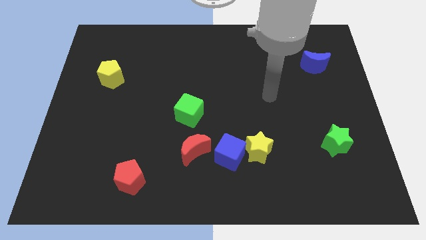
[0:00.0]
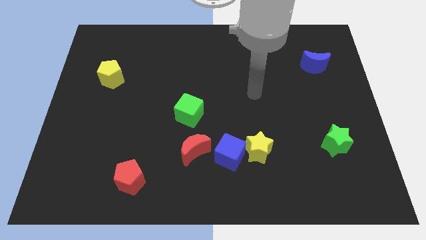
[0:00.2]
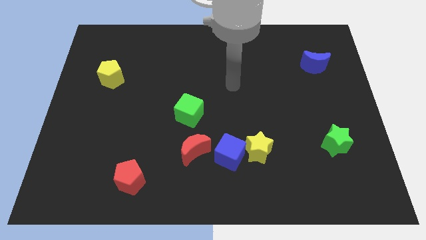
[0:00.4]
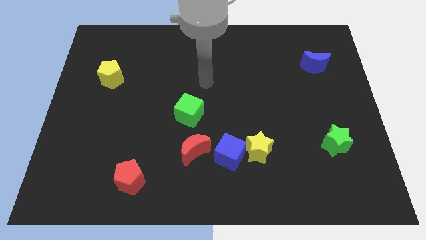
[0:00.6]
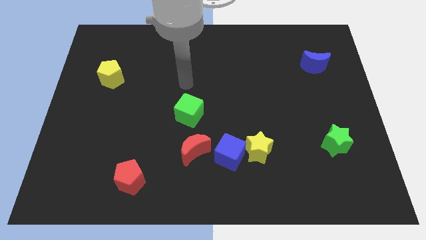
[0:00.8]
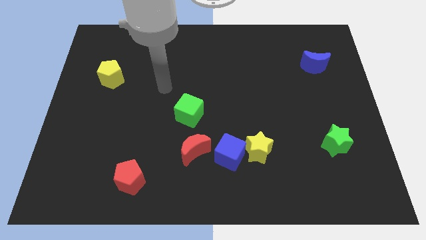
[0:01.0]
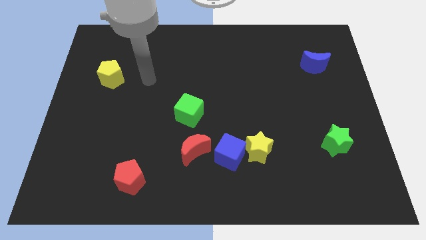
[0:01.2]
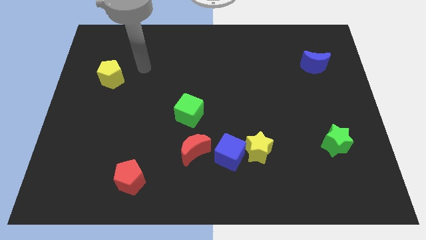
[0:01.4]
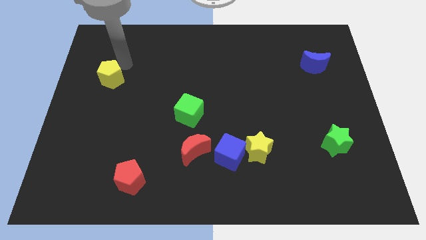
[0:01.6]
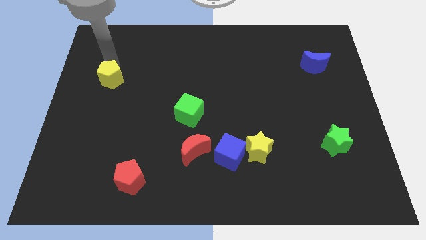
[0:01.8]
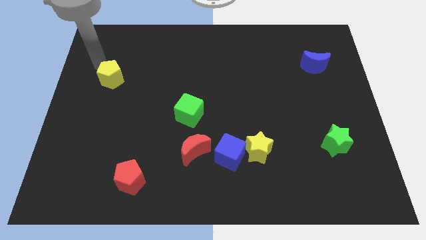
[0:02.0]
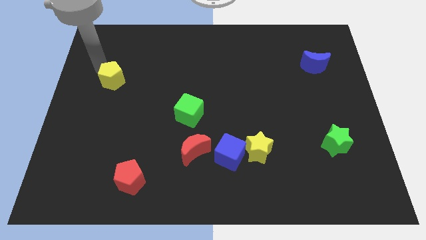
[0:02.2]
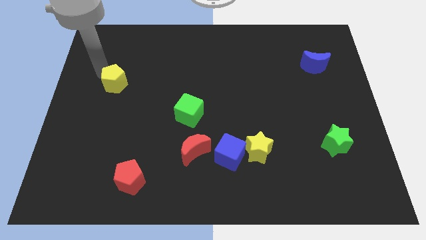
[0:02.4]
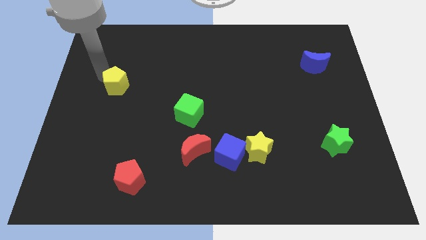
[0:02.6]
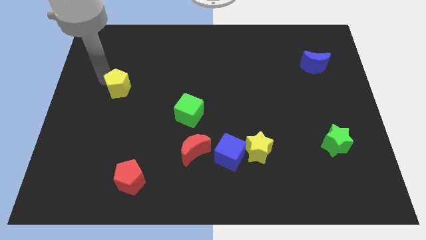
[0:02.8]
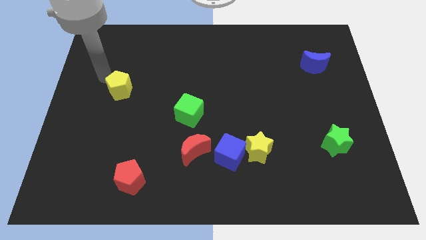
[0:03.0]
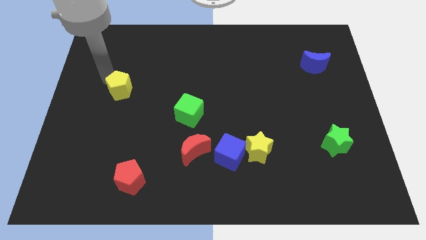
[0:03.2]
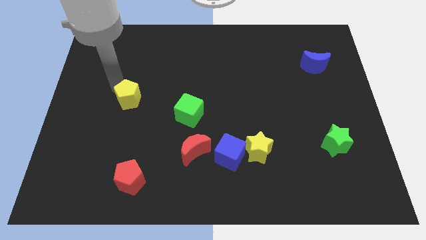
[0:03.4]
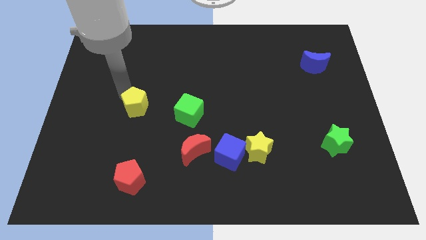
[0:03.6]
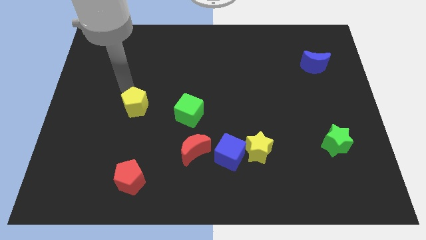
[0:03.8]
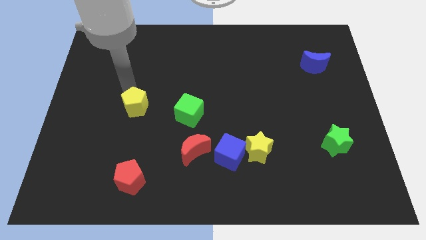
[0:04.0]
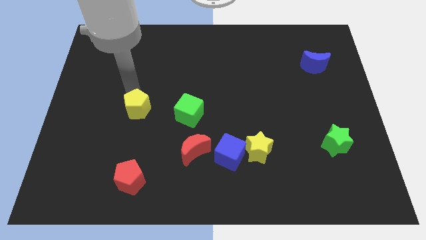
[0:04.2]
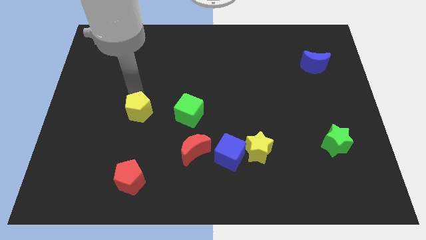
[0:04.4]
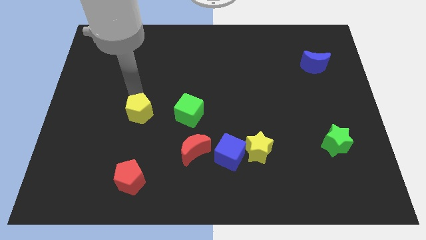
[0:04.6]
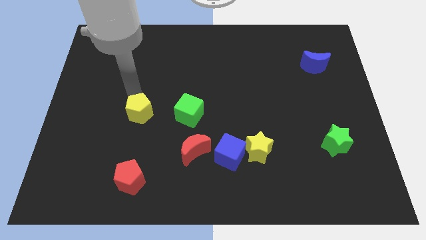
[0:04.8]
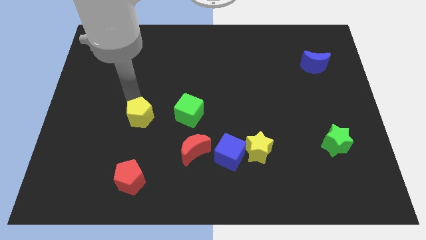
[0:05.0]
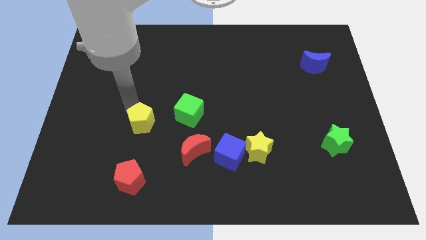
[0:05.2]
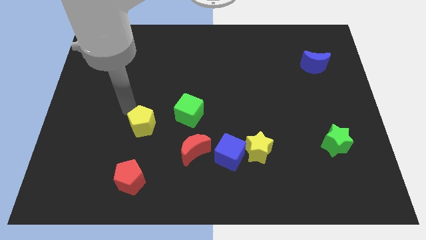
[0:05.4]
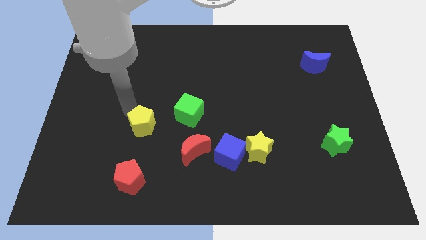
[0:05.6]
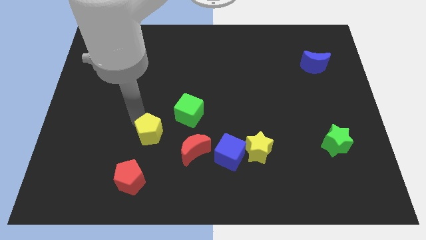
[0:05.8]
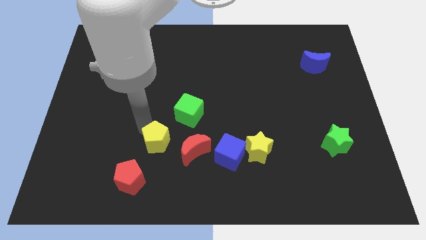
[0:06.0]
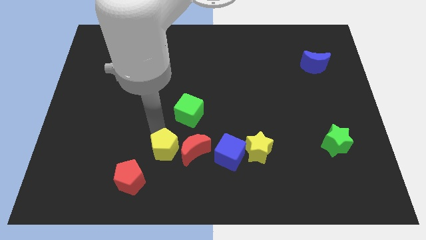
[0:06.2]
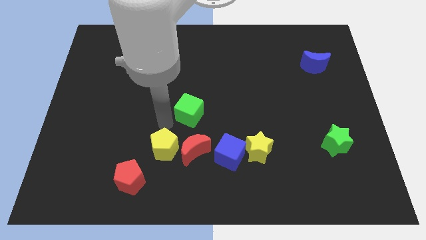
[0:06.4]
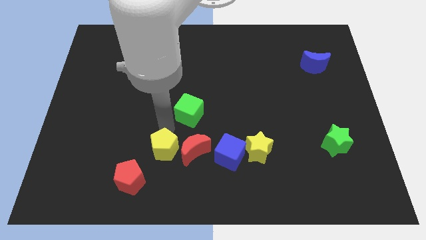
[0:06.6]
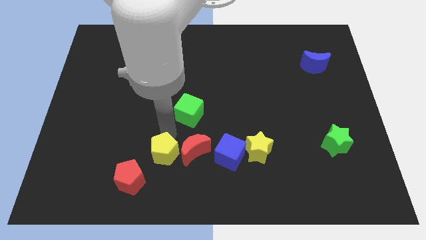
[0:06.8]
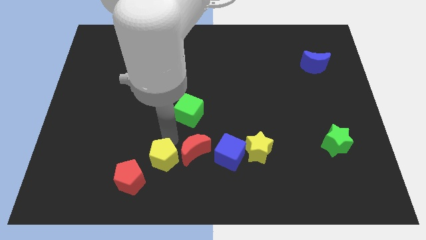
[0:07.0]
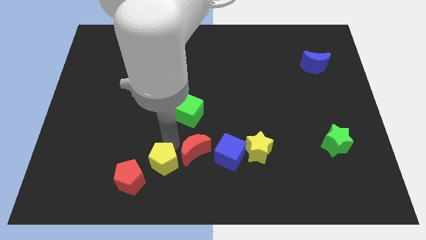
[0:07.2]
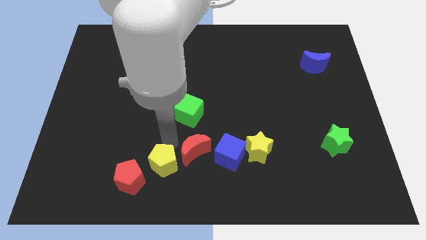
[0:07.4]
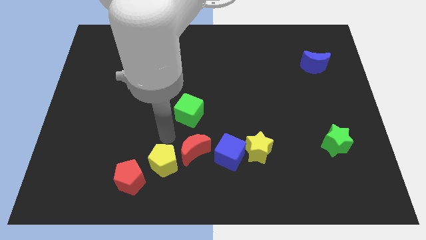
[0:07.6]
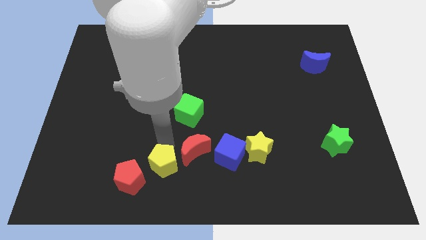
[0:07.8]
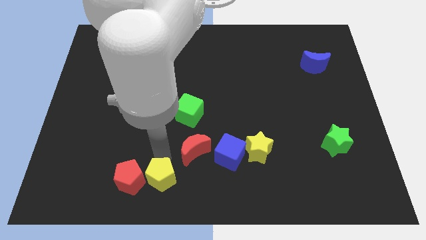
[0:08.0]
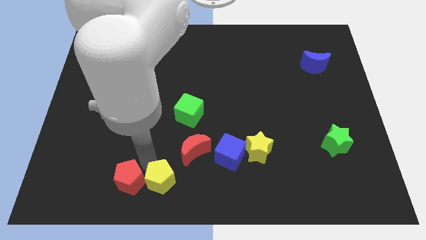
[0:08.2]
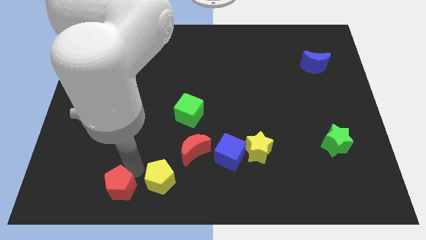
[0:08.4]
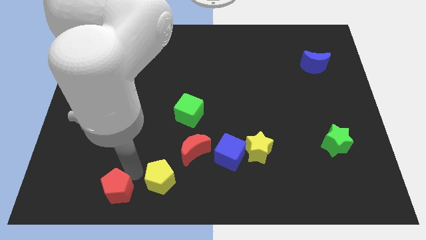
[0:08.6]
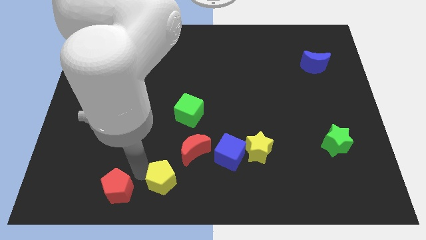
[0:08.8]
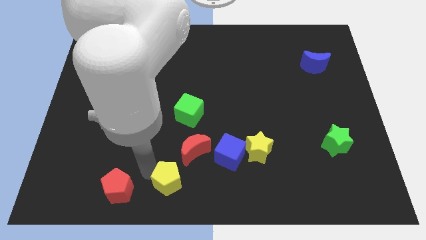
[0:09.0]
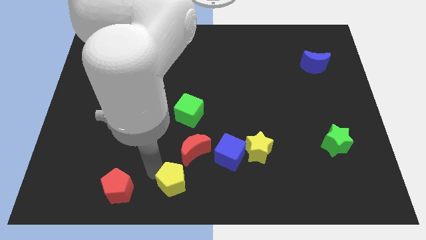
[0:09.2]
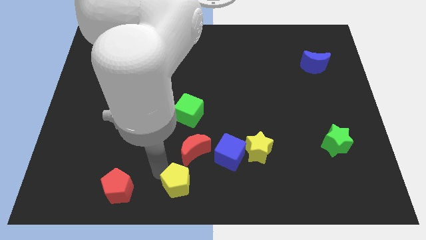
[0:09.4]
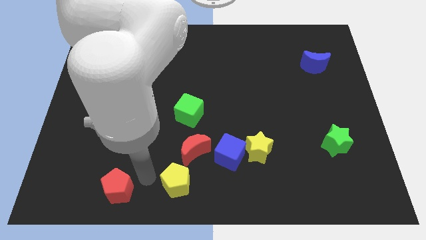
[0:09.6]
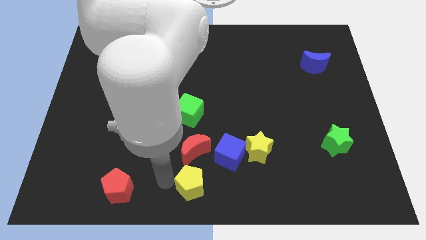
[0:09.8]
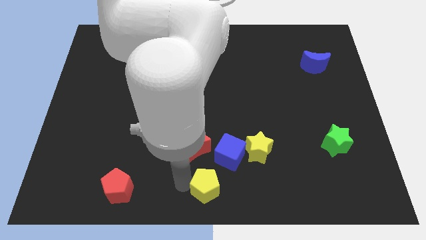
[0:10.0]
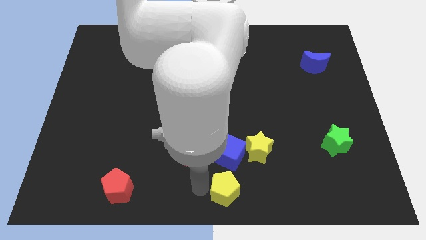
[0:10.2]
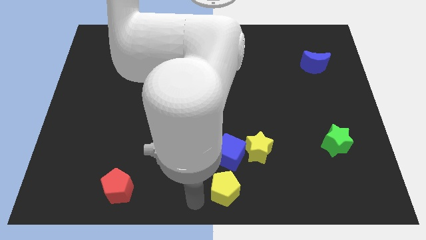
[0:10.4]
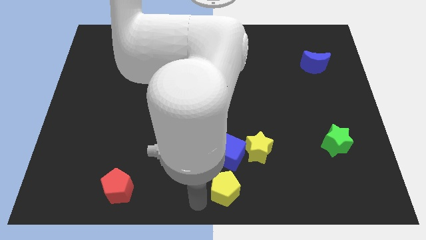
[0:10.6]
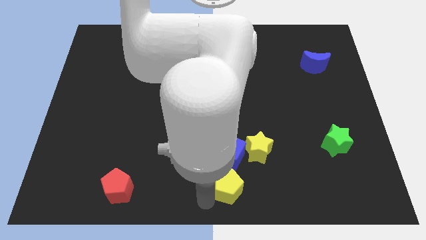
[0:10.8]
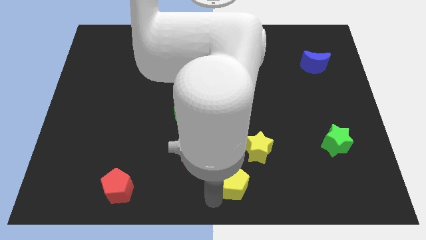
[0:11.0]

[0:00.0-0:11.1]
put the yellow pentagon diagonally down and to the right of the blue cube
